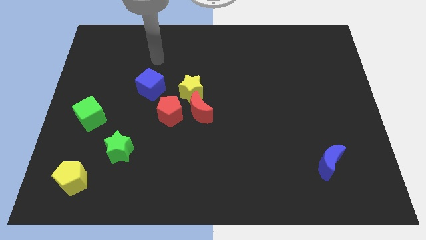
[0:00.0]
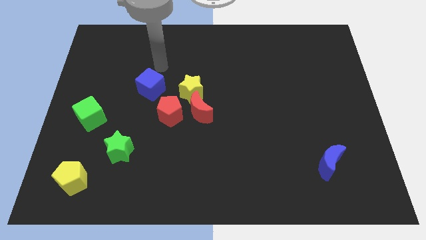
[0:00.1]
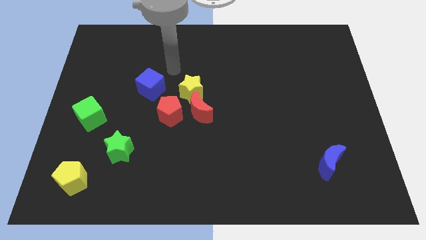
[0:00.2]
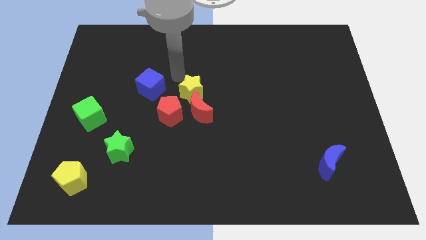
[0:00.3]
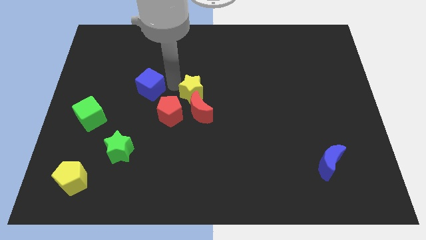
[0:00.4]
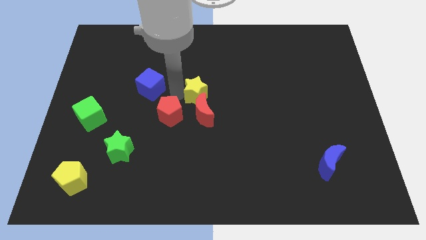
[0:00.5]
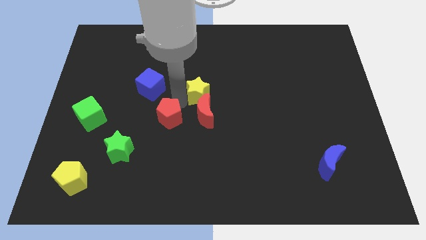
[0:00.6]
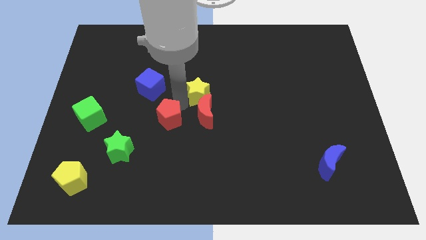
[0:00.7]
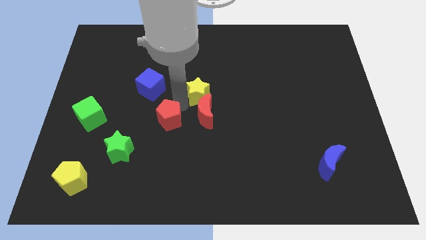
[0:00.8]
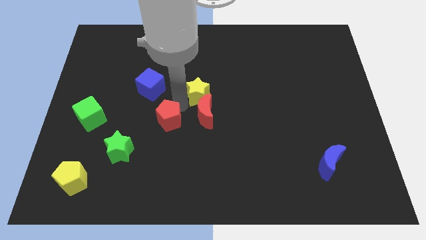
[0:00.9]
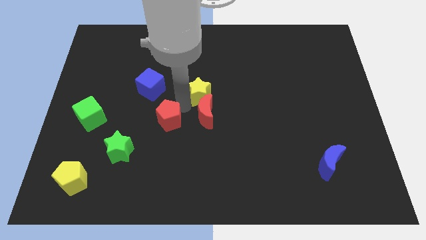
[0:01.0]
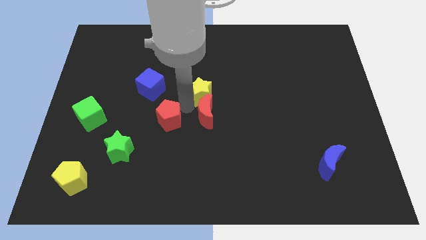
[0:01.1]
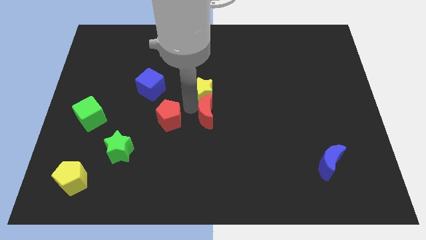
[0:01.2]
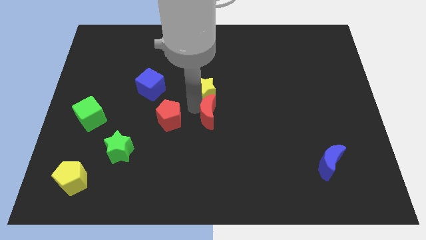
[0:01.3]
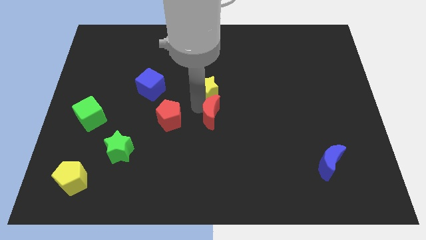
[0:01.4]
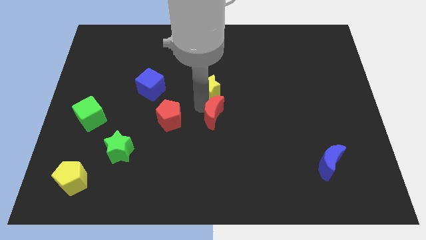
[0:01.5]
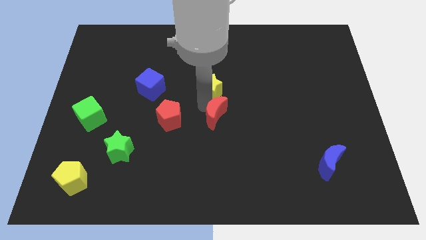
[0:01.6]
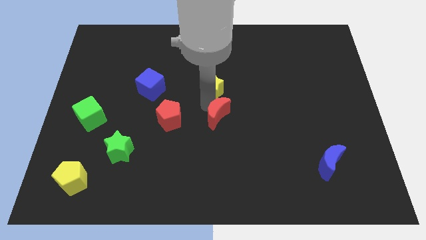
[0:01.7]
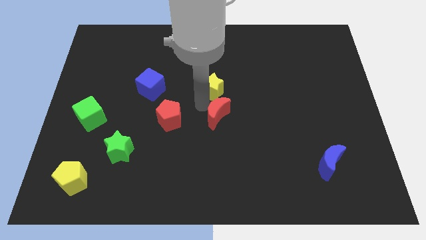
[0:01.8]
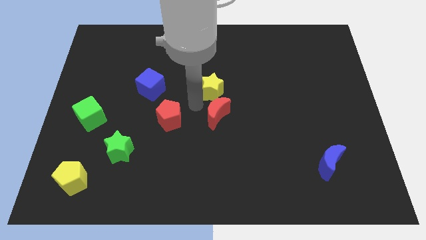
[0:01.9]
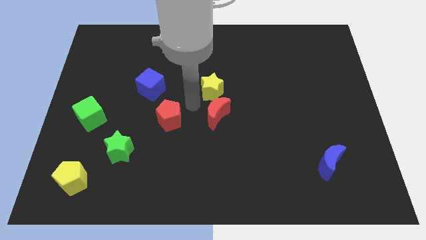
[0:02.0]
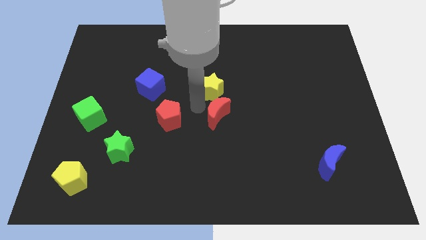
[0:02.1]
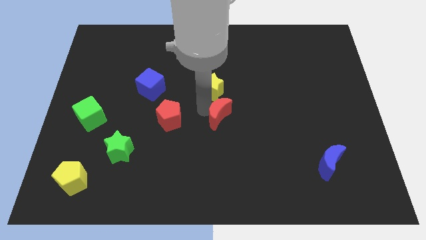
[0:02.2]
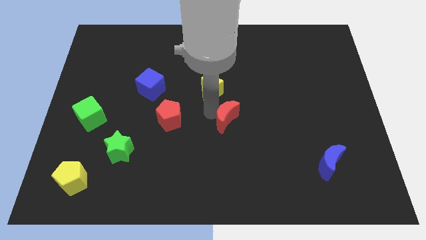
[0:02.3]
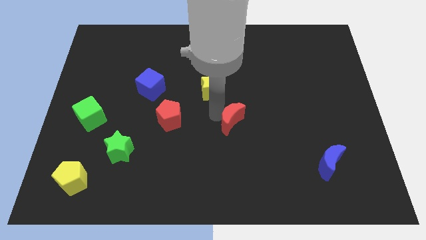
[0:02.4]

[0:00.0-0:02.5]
move the red moon away from the yellow star and red pentagon

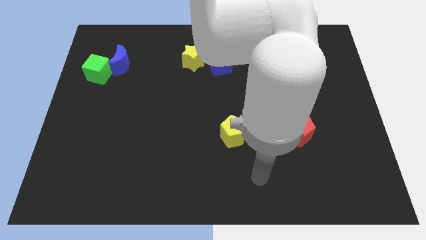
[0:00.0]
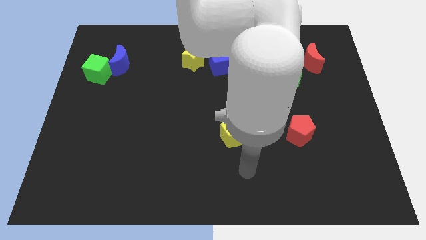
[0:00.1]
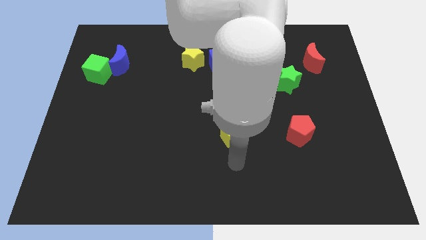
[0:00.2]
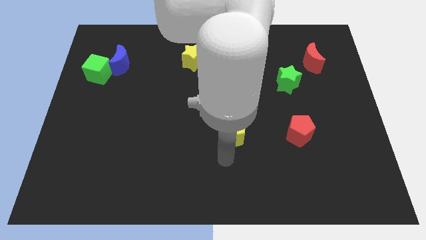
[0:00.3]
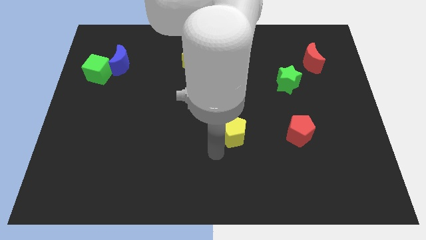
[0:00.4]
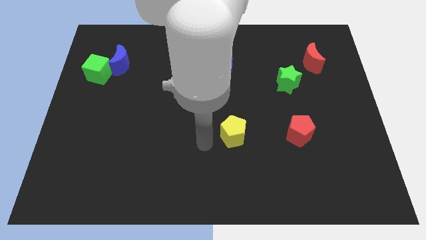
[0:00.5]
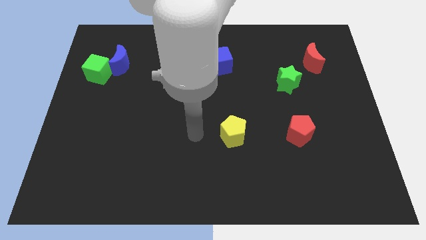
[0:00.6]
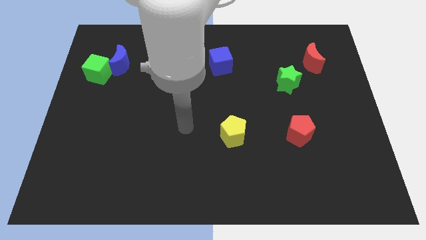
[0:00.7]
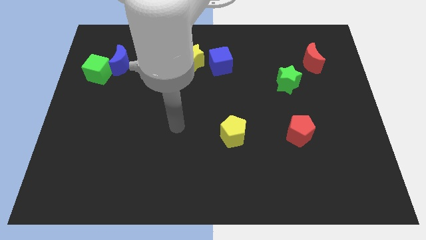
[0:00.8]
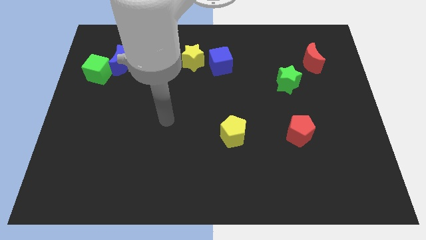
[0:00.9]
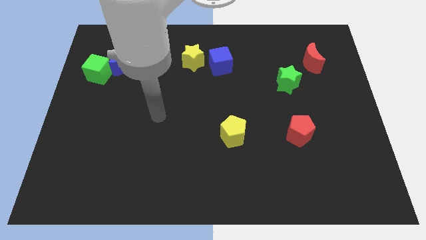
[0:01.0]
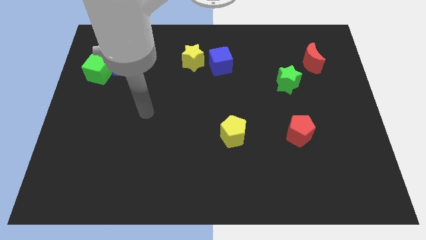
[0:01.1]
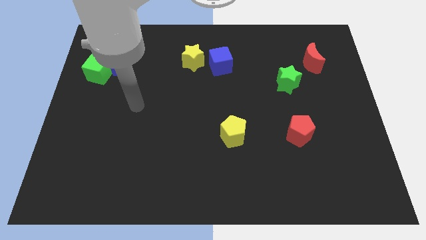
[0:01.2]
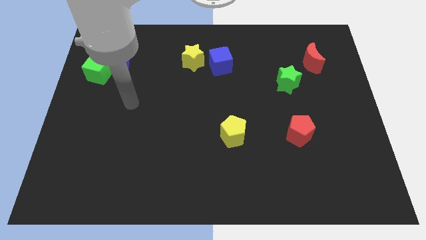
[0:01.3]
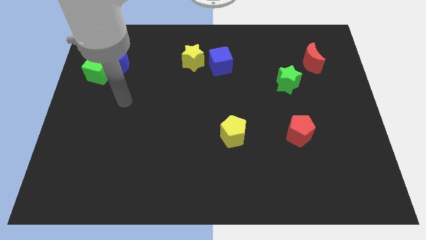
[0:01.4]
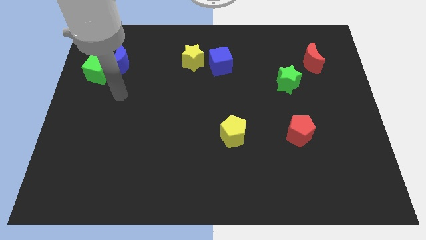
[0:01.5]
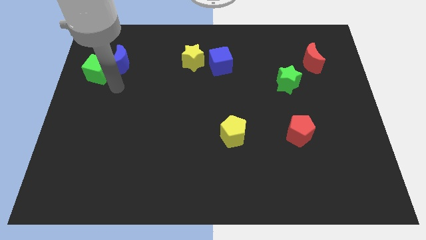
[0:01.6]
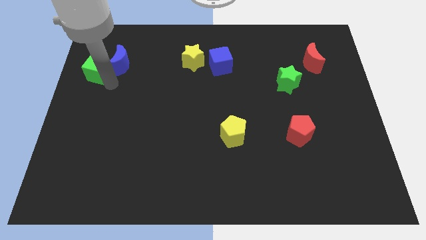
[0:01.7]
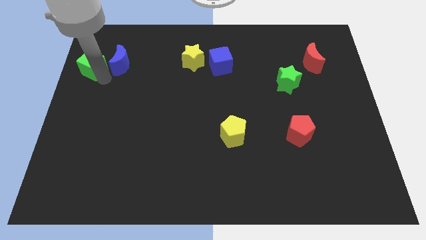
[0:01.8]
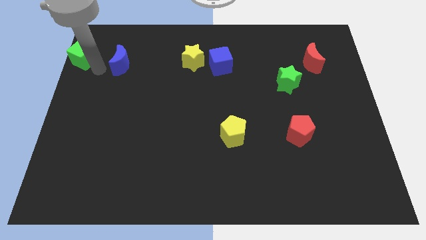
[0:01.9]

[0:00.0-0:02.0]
separate the blue moon from the green cube

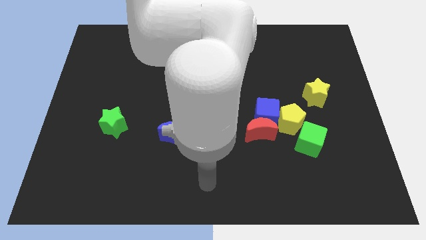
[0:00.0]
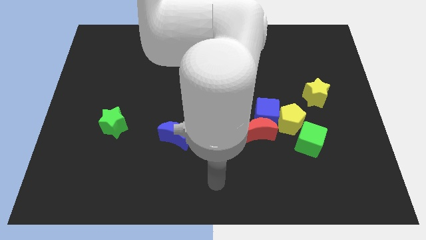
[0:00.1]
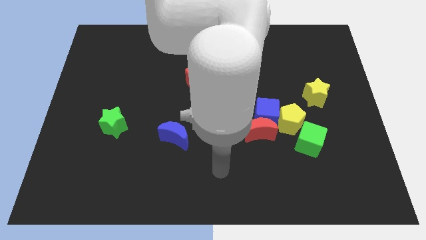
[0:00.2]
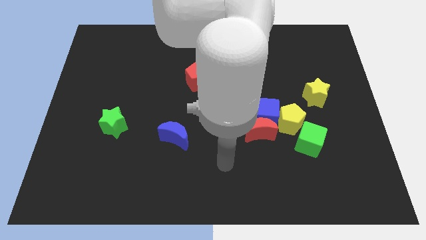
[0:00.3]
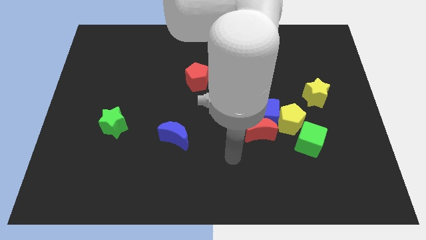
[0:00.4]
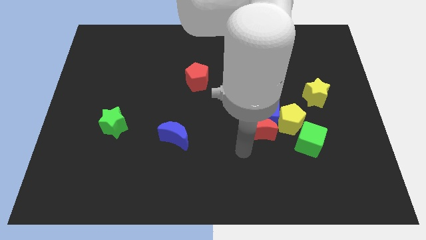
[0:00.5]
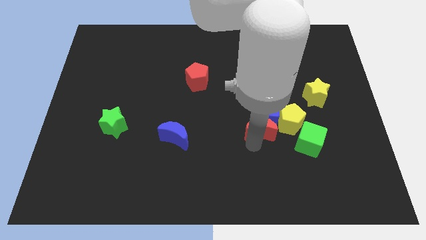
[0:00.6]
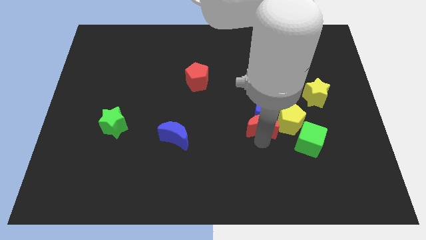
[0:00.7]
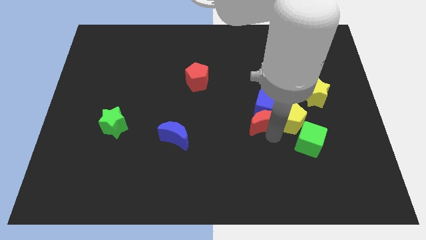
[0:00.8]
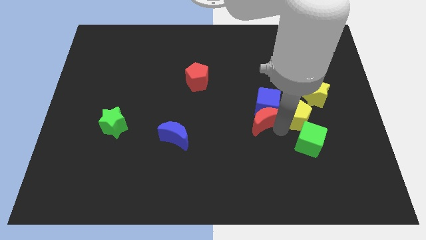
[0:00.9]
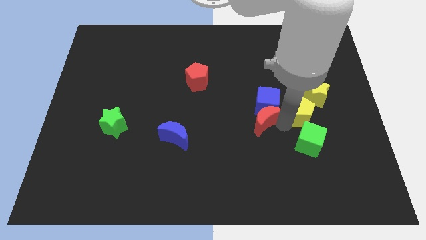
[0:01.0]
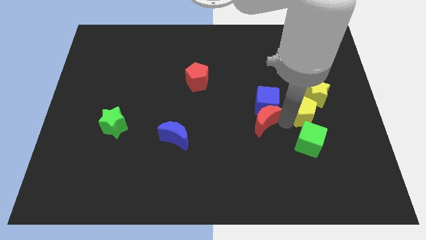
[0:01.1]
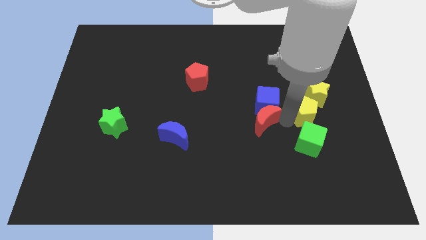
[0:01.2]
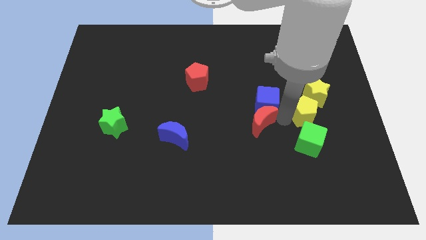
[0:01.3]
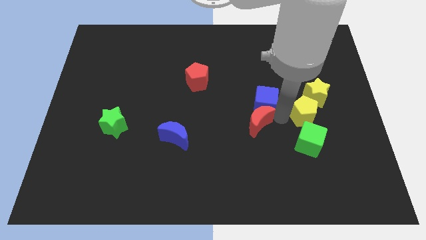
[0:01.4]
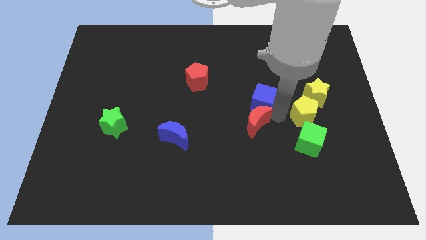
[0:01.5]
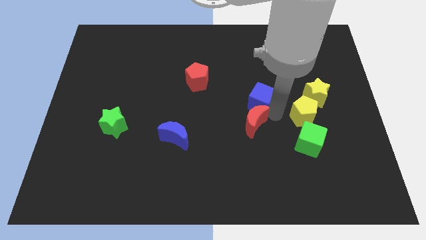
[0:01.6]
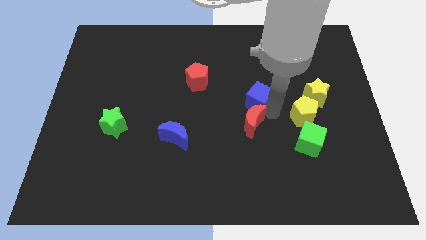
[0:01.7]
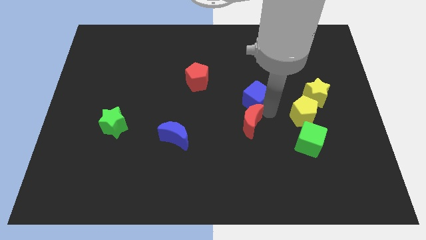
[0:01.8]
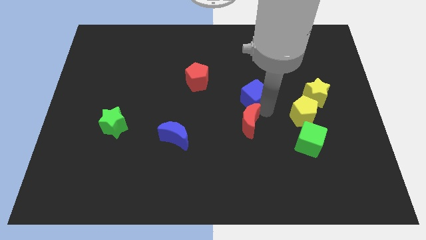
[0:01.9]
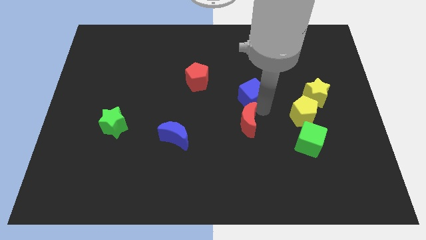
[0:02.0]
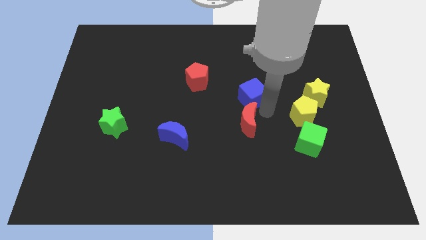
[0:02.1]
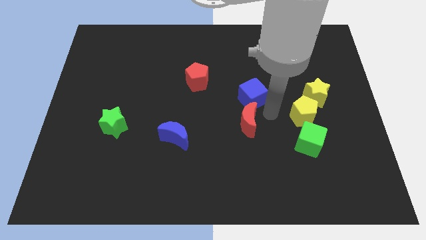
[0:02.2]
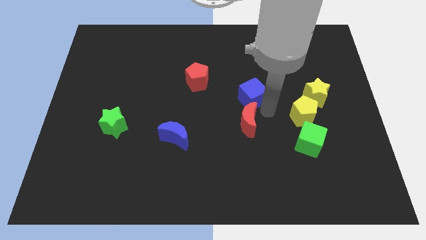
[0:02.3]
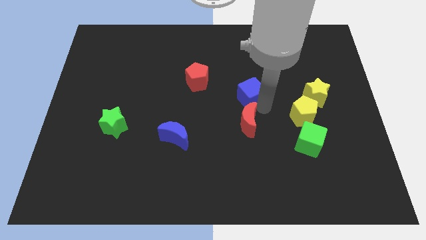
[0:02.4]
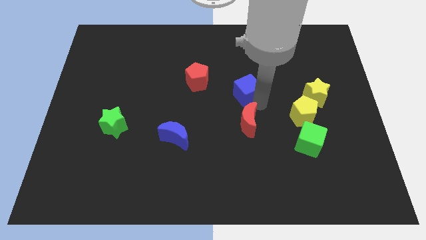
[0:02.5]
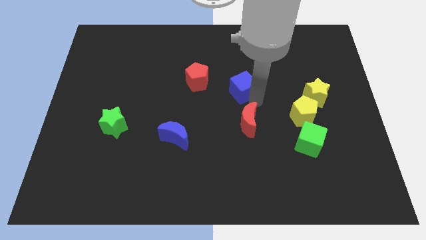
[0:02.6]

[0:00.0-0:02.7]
move the blue cube away from the red moon and yellow pentagon

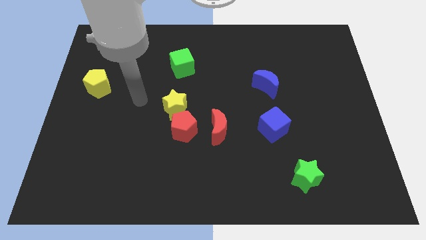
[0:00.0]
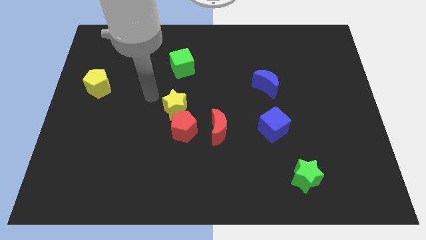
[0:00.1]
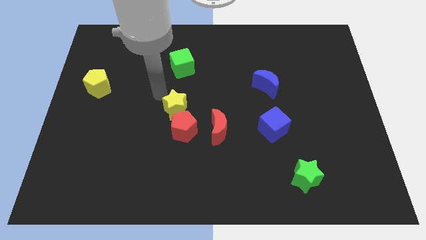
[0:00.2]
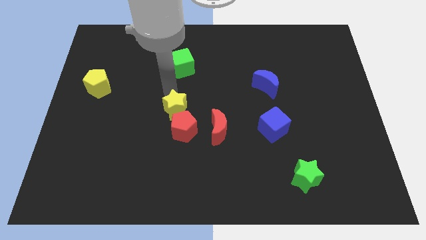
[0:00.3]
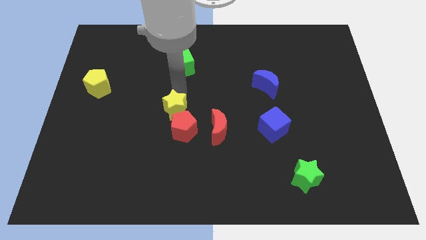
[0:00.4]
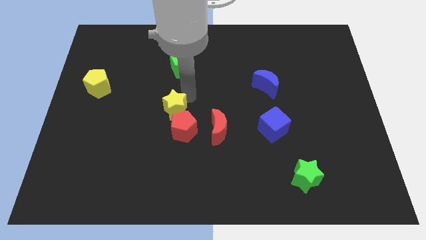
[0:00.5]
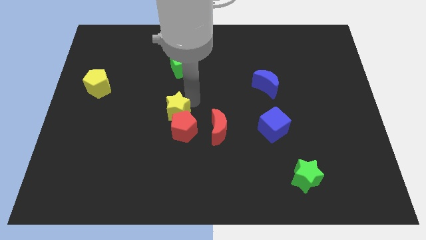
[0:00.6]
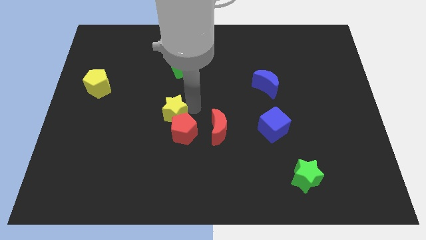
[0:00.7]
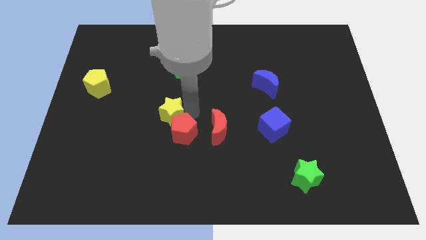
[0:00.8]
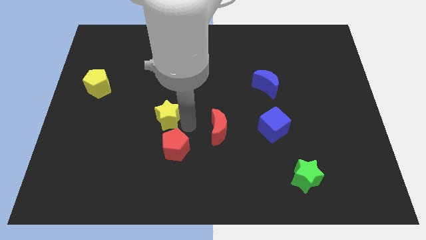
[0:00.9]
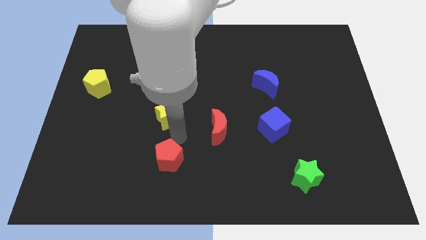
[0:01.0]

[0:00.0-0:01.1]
separate the yellow star from the red pentagon

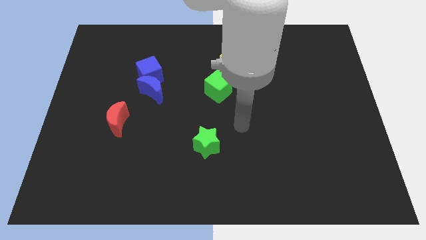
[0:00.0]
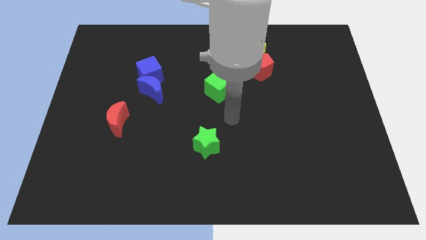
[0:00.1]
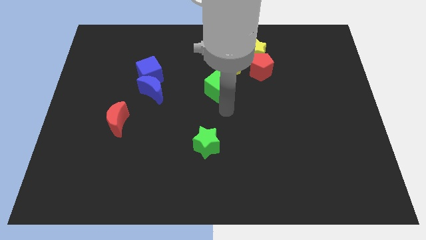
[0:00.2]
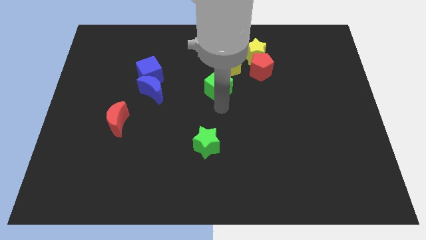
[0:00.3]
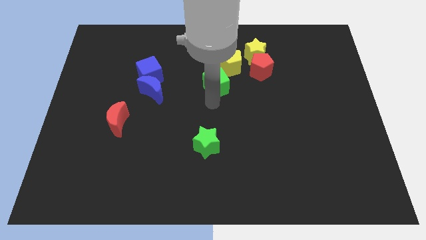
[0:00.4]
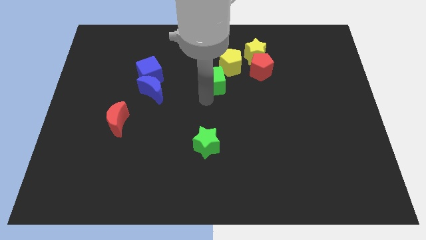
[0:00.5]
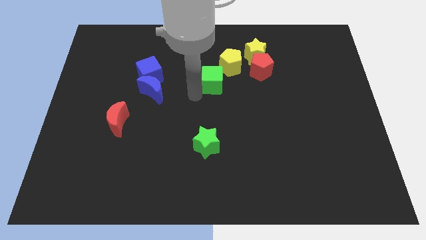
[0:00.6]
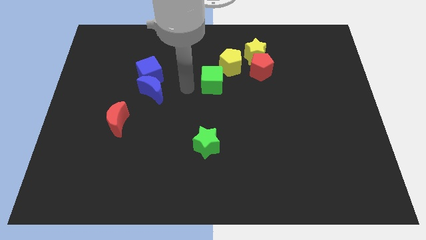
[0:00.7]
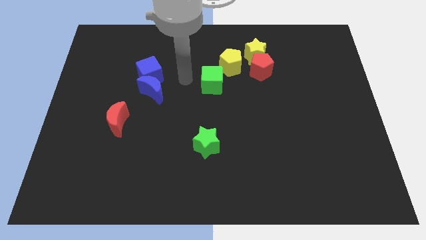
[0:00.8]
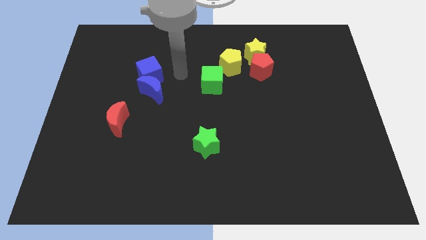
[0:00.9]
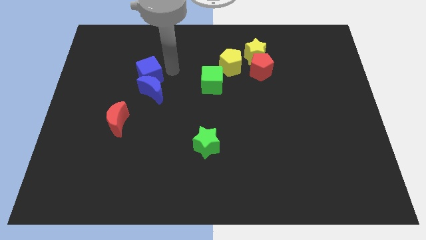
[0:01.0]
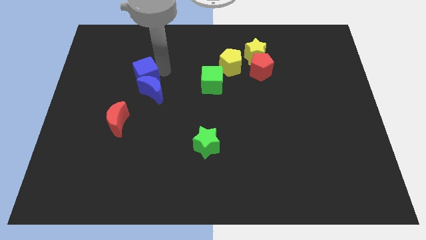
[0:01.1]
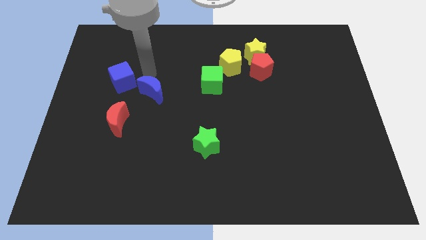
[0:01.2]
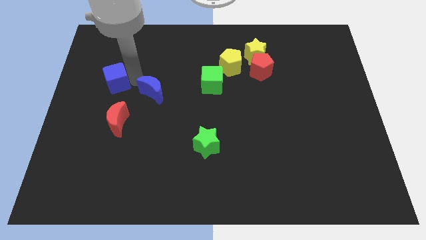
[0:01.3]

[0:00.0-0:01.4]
pull the blue moon apart from the blue cube
